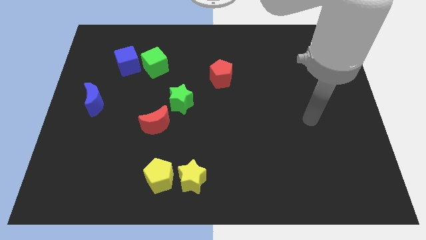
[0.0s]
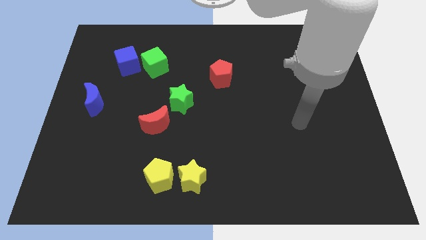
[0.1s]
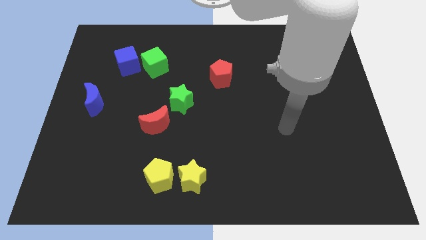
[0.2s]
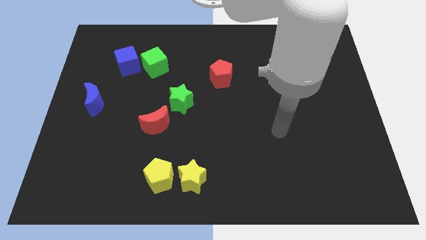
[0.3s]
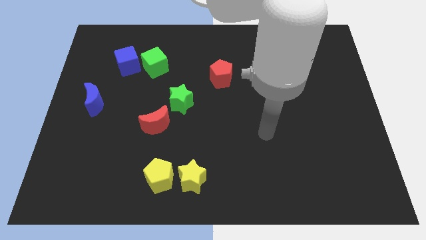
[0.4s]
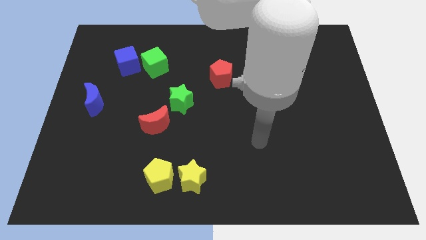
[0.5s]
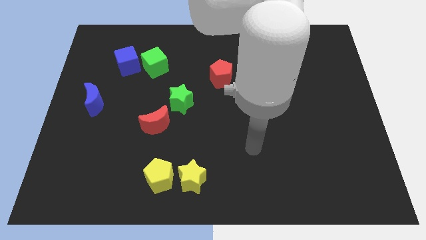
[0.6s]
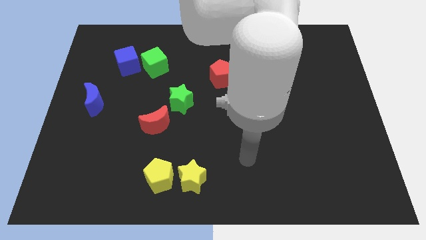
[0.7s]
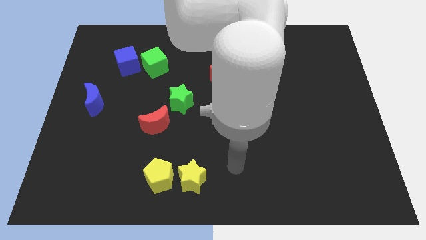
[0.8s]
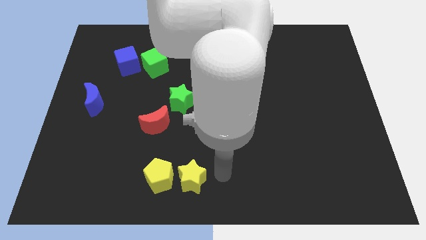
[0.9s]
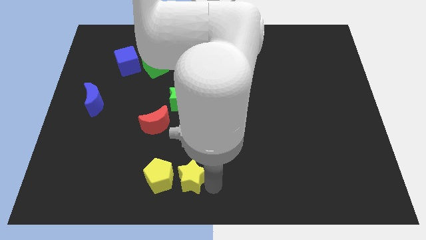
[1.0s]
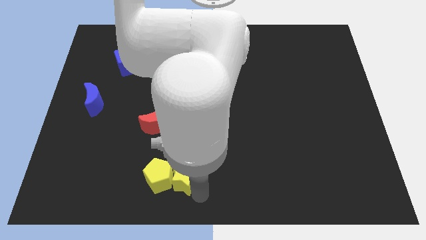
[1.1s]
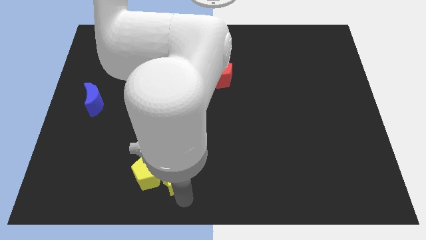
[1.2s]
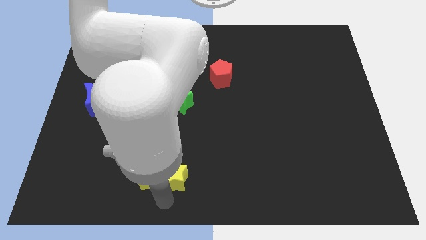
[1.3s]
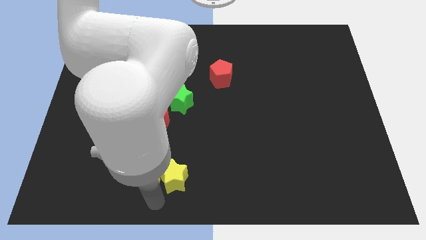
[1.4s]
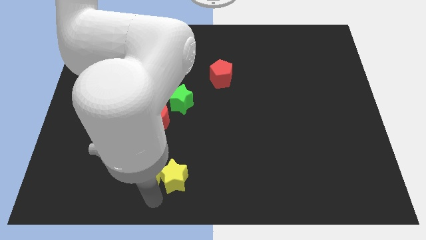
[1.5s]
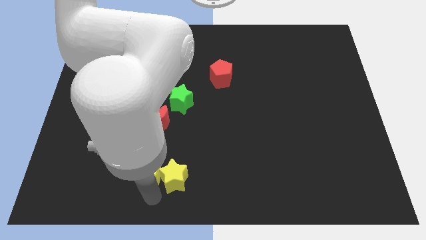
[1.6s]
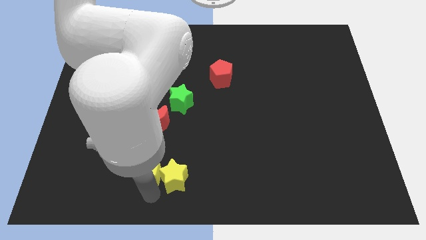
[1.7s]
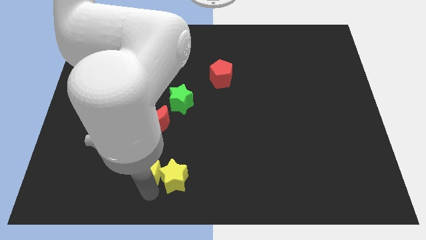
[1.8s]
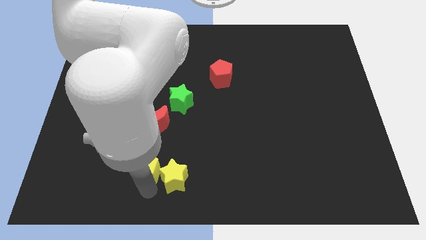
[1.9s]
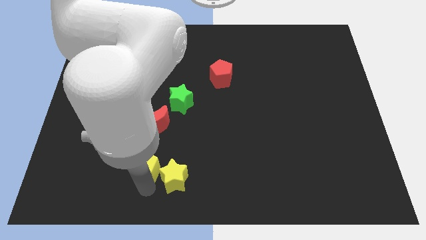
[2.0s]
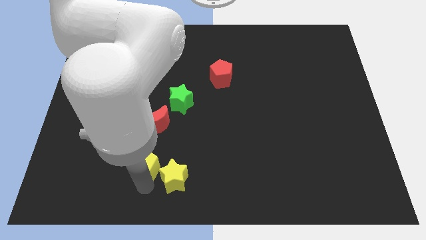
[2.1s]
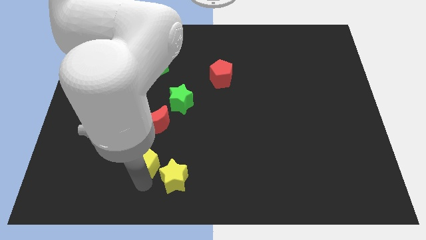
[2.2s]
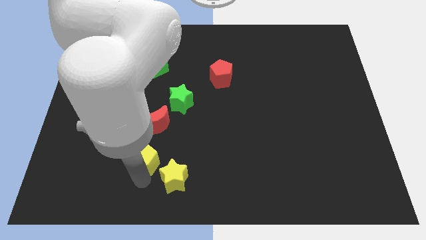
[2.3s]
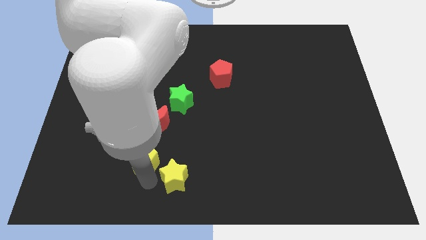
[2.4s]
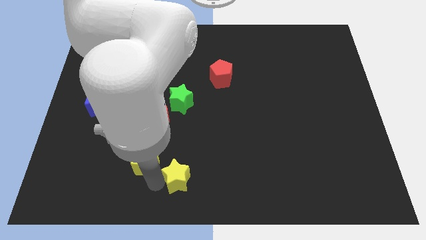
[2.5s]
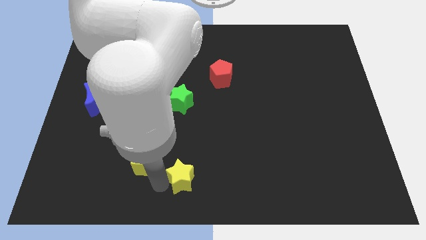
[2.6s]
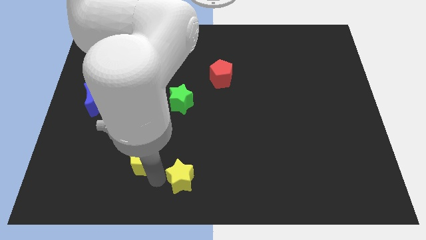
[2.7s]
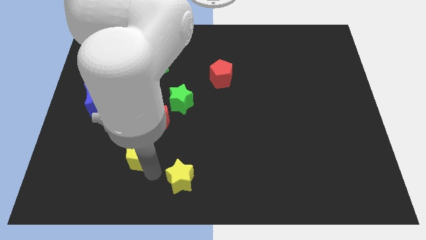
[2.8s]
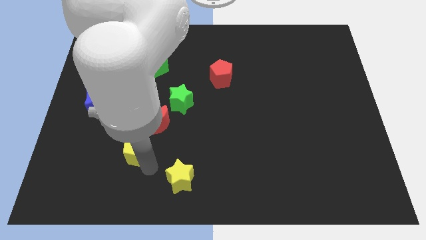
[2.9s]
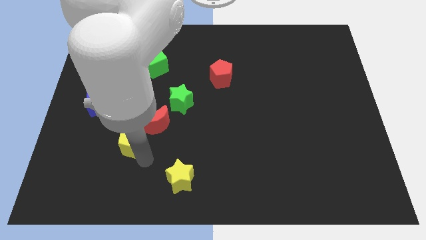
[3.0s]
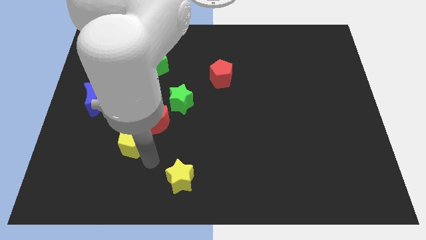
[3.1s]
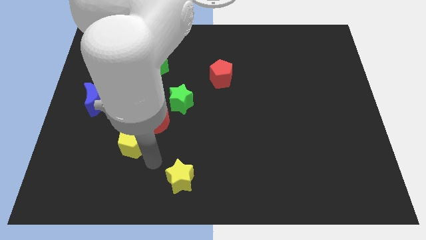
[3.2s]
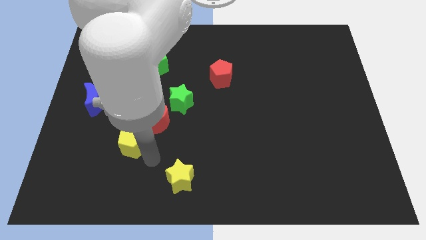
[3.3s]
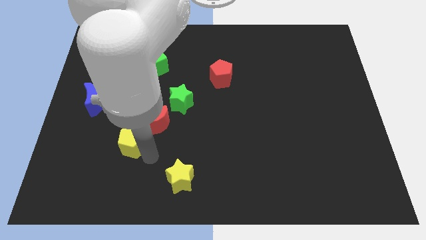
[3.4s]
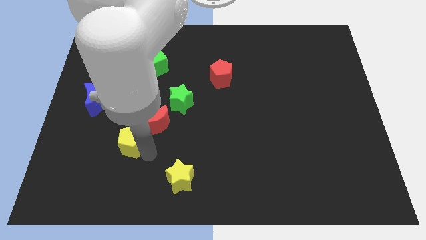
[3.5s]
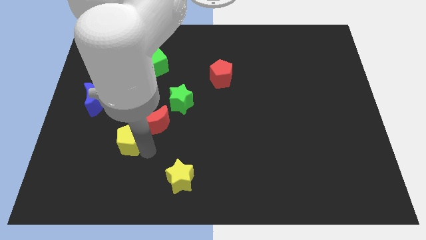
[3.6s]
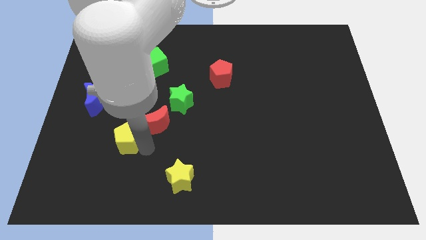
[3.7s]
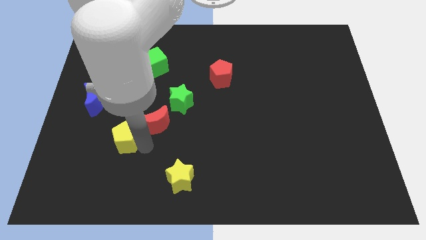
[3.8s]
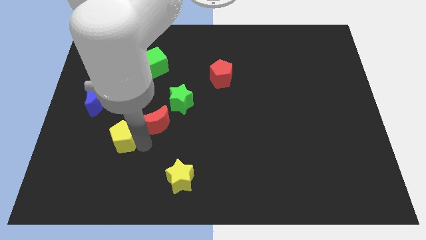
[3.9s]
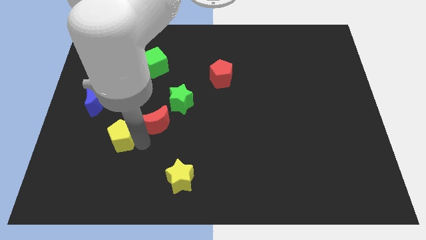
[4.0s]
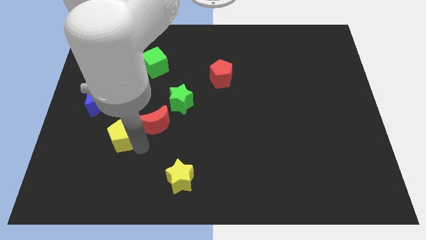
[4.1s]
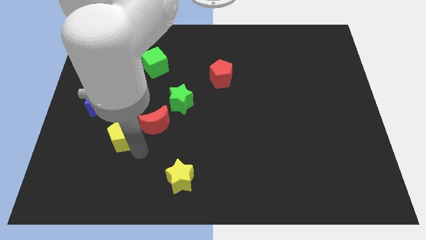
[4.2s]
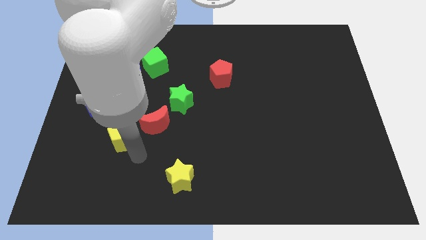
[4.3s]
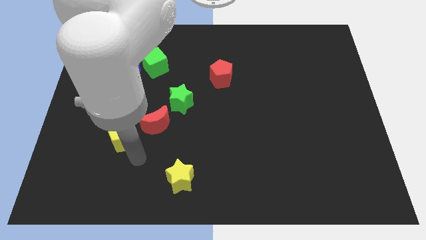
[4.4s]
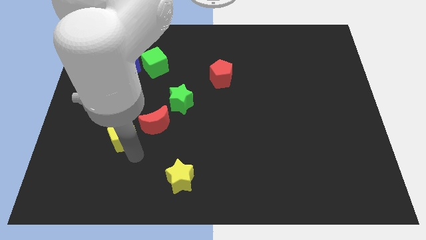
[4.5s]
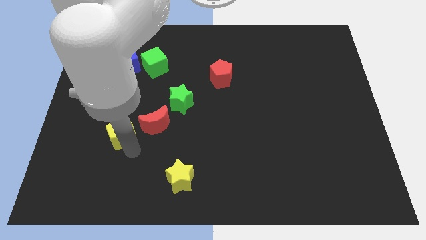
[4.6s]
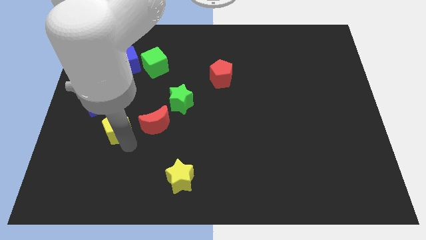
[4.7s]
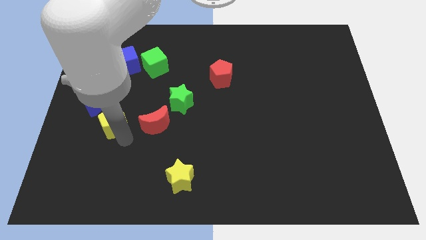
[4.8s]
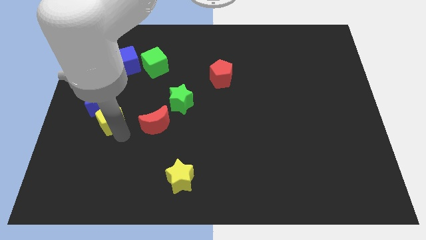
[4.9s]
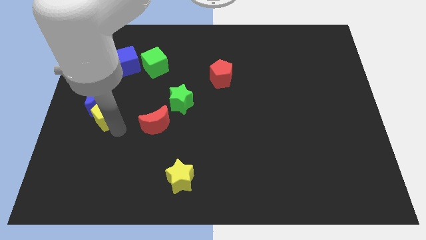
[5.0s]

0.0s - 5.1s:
slide the yellow pentagon to the blue moon

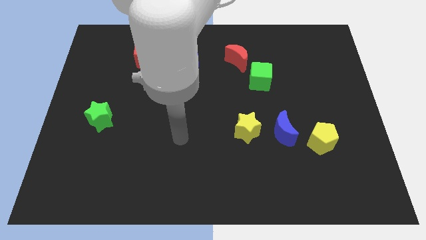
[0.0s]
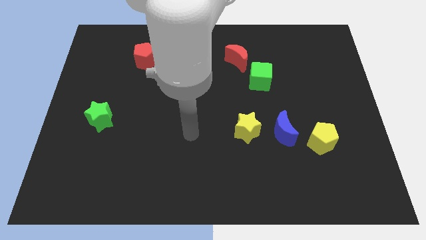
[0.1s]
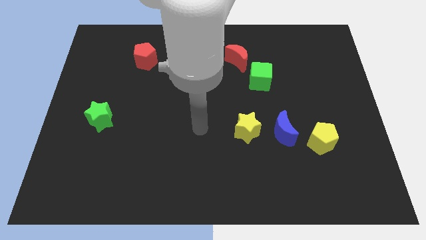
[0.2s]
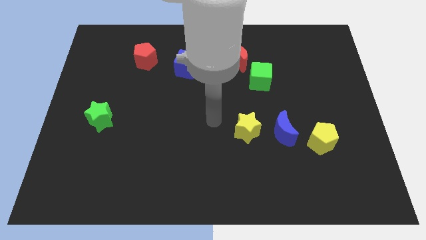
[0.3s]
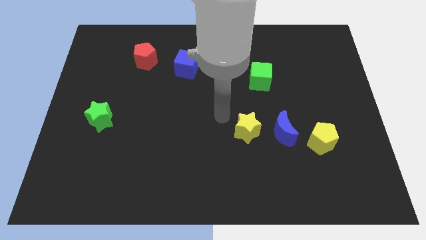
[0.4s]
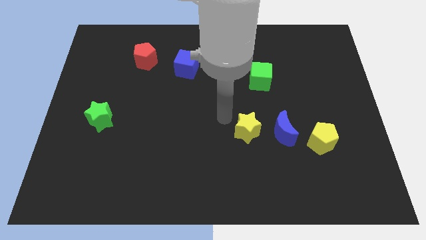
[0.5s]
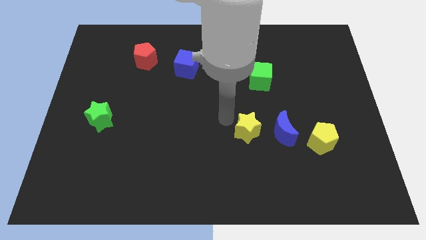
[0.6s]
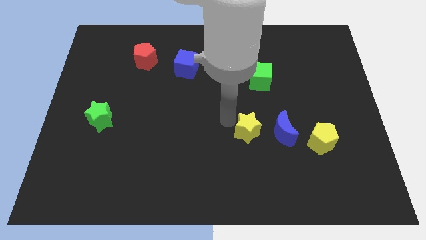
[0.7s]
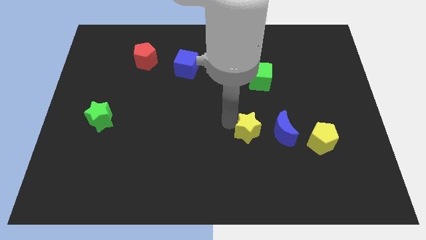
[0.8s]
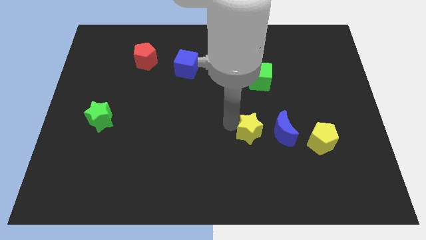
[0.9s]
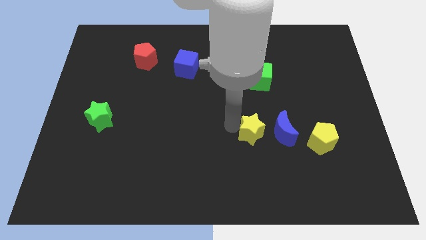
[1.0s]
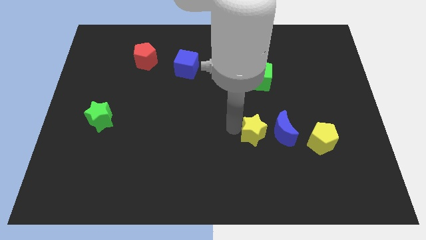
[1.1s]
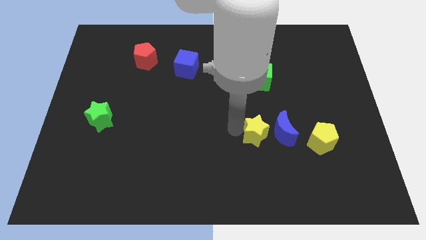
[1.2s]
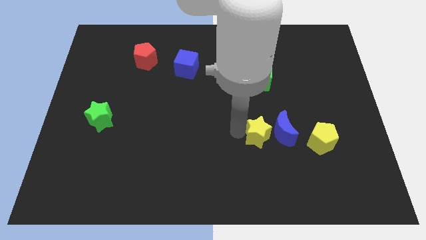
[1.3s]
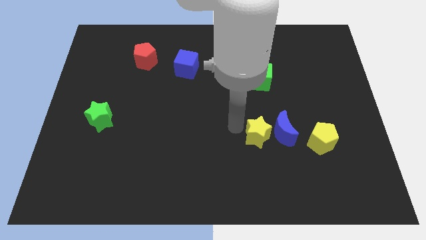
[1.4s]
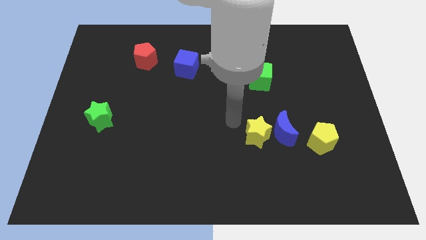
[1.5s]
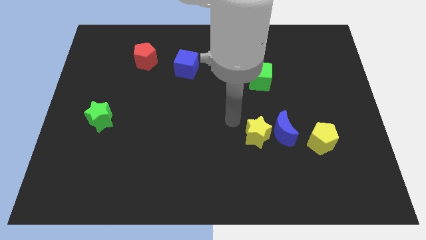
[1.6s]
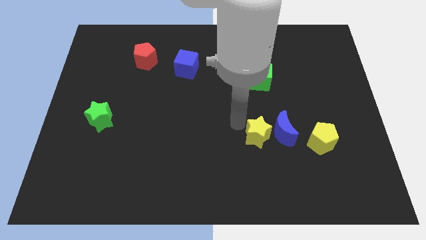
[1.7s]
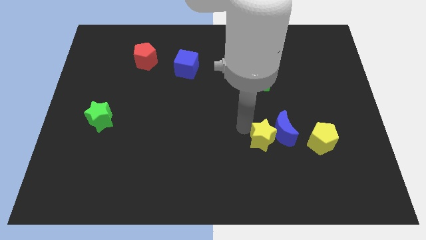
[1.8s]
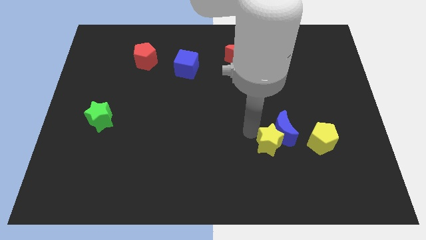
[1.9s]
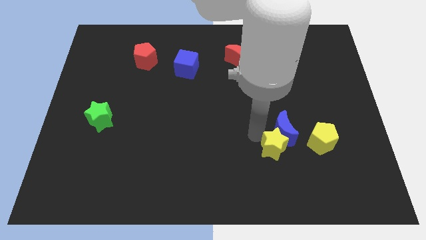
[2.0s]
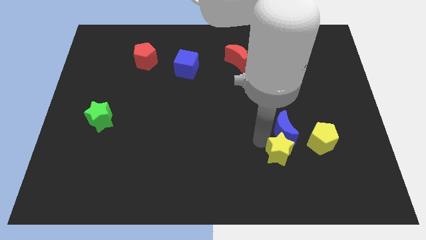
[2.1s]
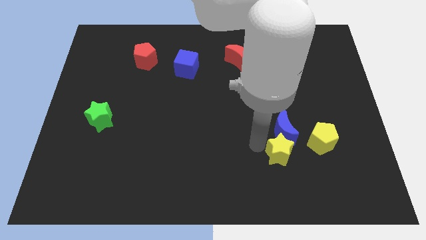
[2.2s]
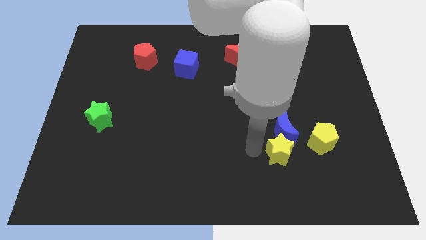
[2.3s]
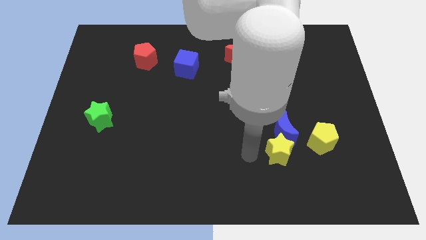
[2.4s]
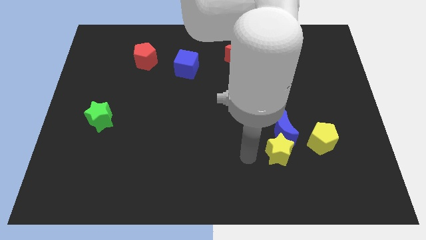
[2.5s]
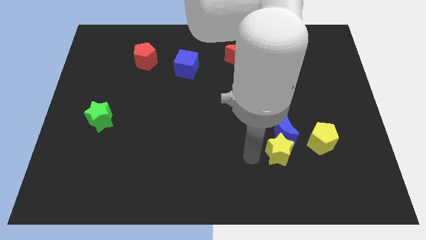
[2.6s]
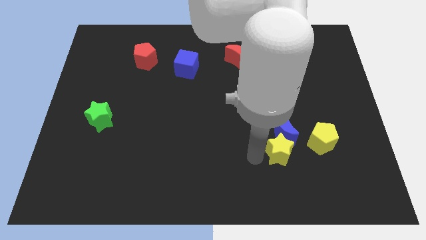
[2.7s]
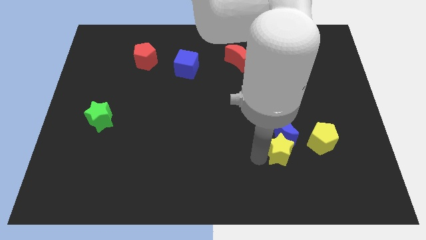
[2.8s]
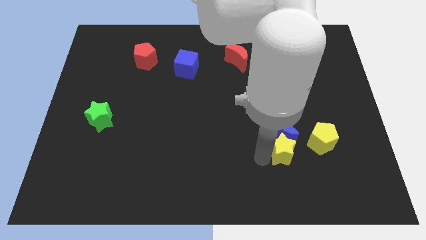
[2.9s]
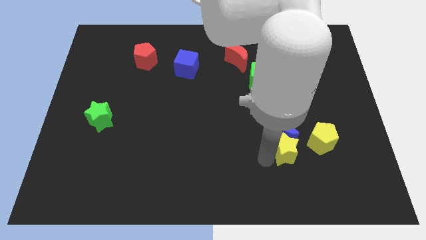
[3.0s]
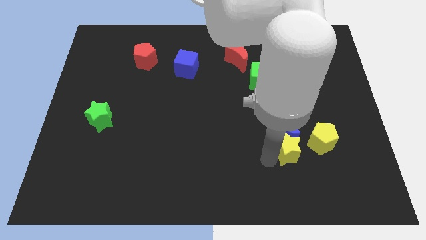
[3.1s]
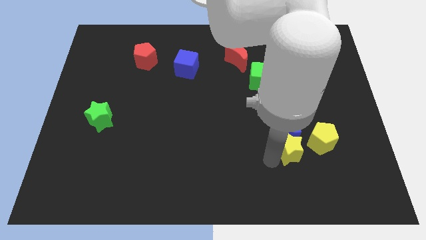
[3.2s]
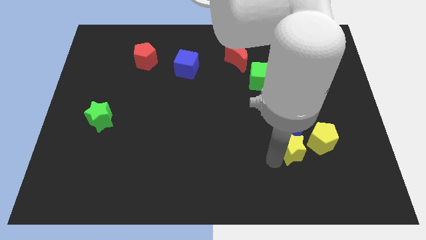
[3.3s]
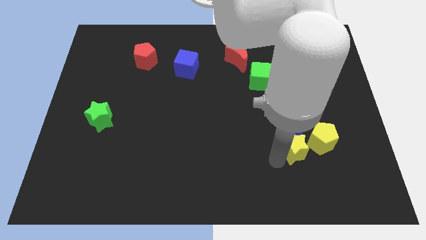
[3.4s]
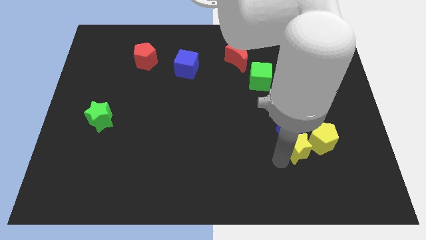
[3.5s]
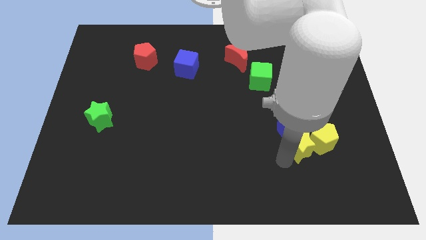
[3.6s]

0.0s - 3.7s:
slide the yellow star close to the yellow pentagon
